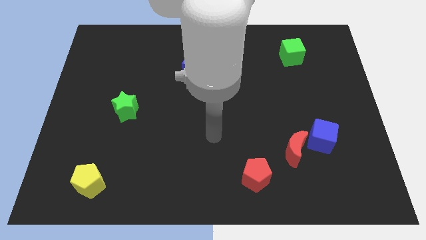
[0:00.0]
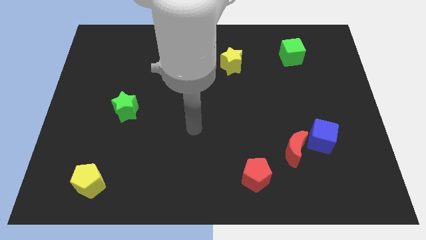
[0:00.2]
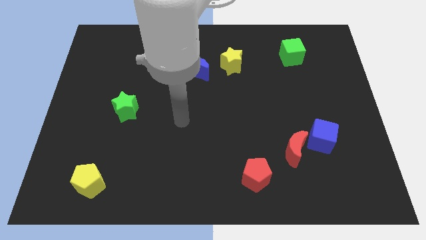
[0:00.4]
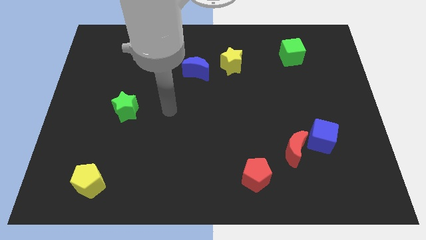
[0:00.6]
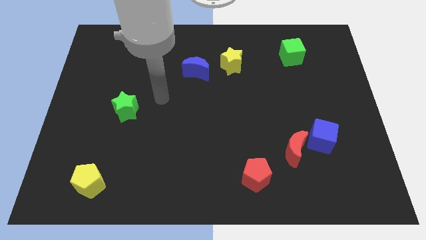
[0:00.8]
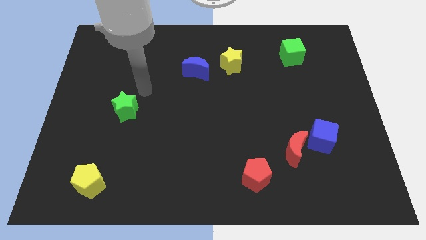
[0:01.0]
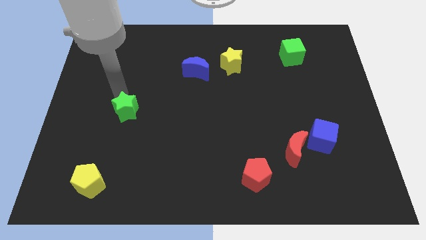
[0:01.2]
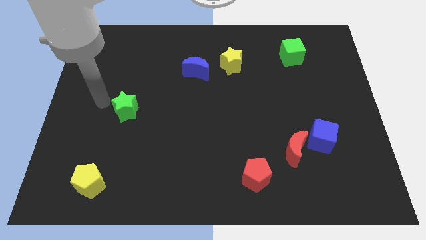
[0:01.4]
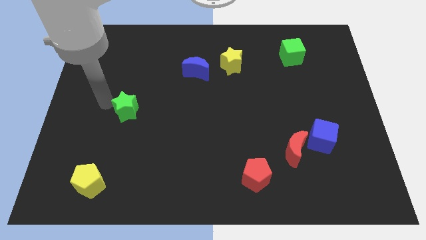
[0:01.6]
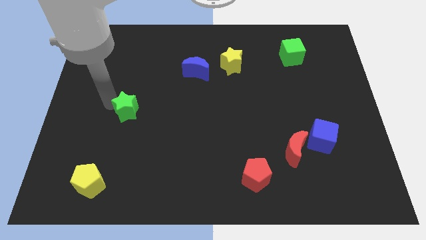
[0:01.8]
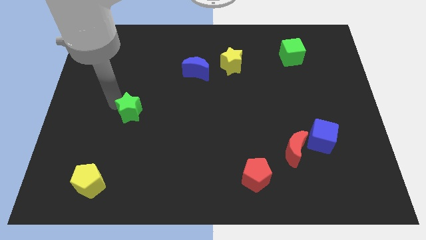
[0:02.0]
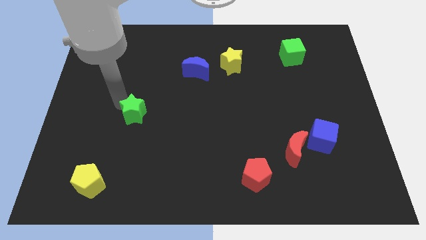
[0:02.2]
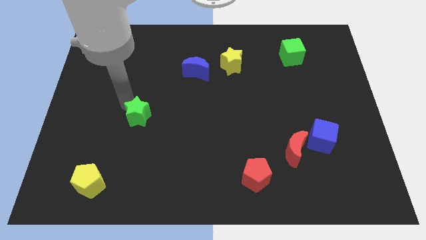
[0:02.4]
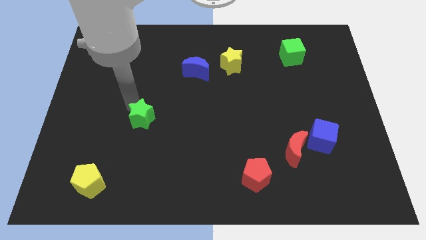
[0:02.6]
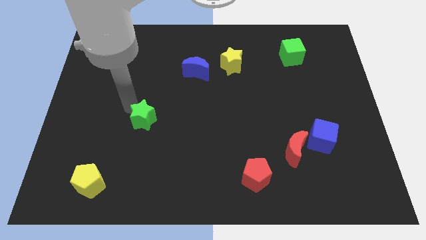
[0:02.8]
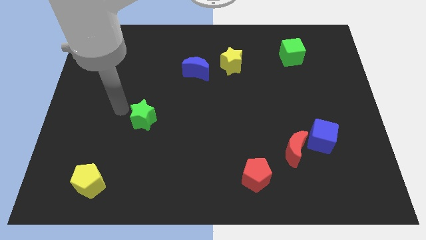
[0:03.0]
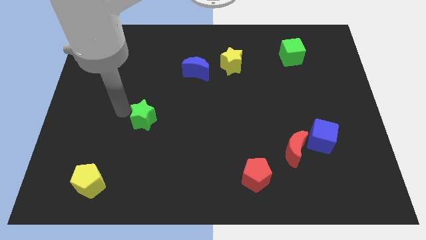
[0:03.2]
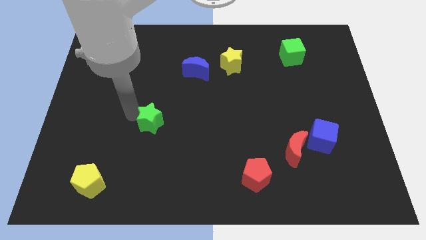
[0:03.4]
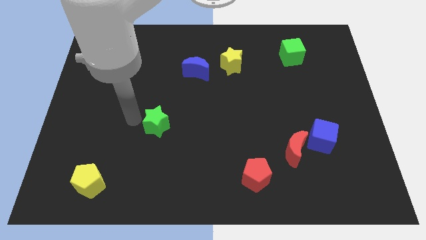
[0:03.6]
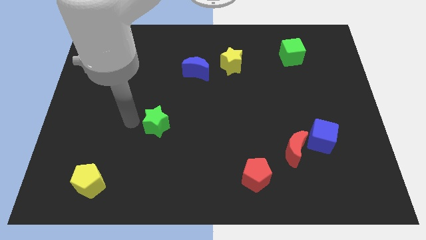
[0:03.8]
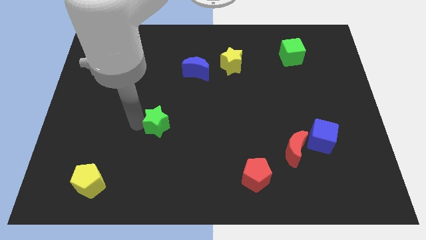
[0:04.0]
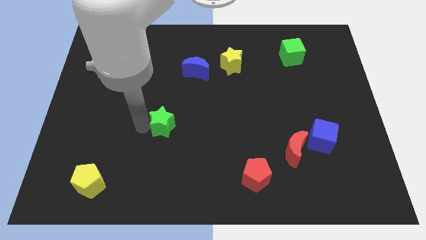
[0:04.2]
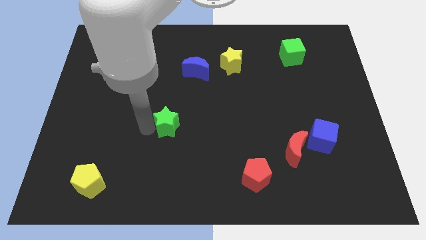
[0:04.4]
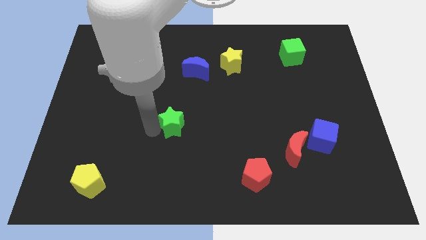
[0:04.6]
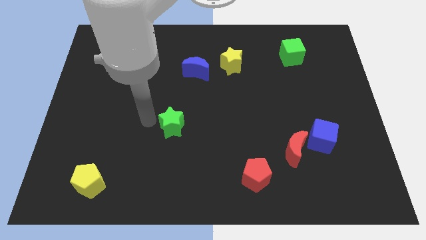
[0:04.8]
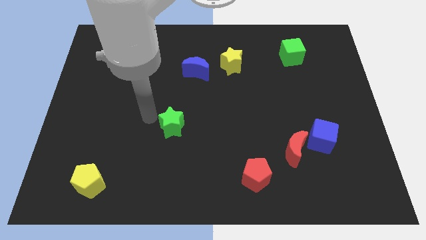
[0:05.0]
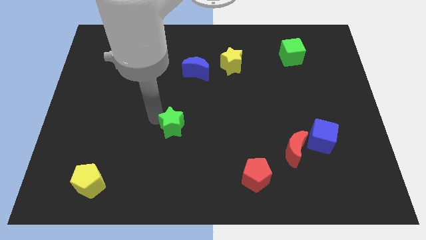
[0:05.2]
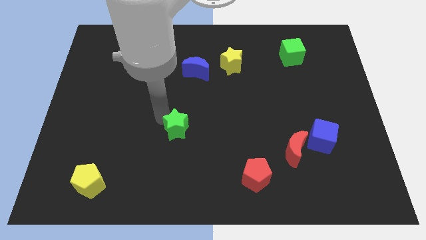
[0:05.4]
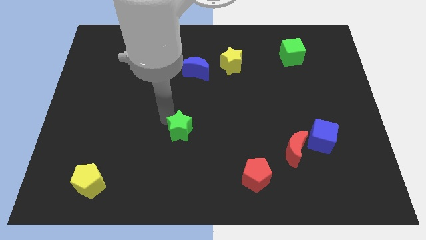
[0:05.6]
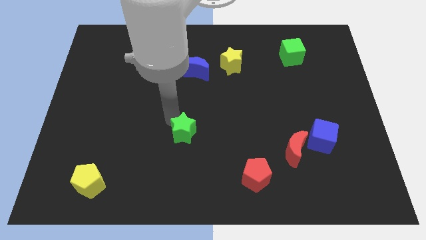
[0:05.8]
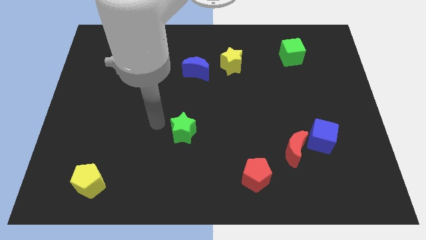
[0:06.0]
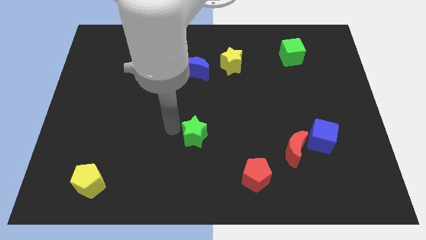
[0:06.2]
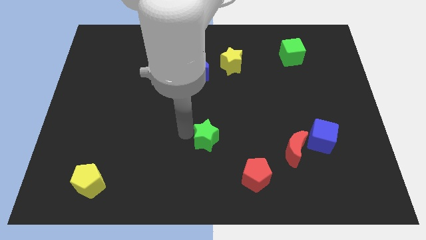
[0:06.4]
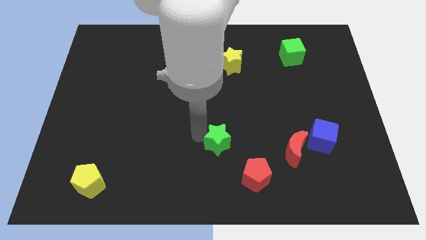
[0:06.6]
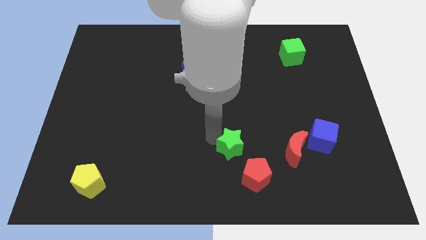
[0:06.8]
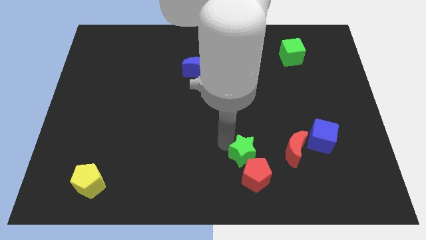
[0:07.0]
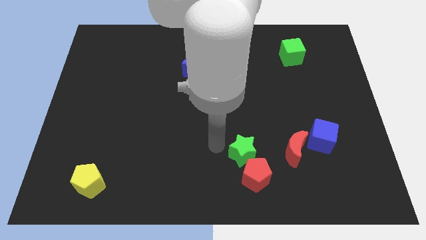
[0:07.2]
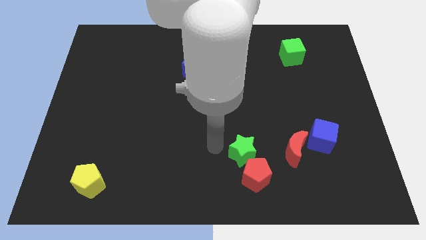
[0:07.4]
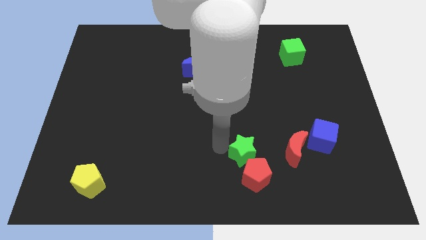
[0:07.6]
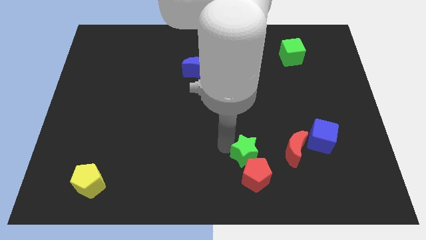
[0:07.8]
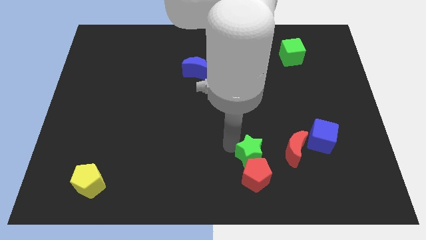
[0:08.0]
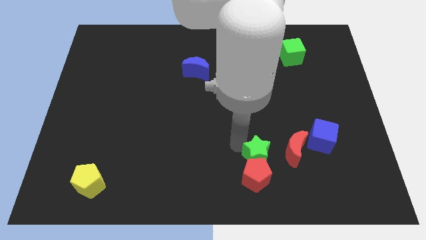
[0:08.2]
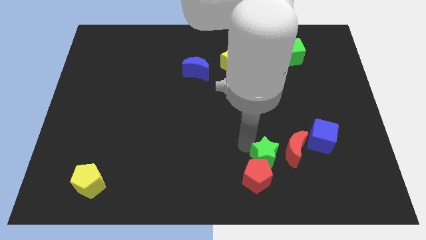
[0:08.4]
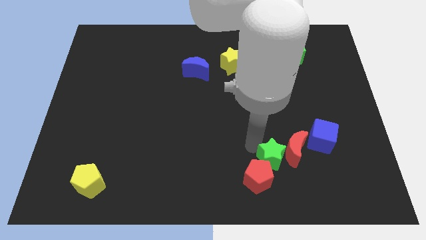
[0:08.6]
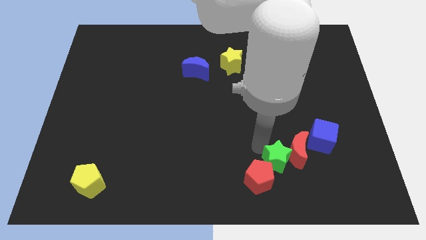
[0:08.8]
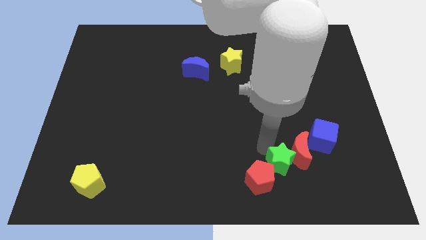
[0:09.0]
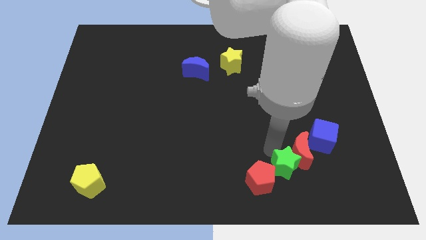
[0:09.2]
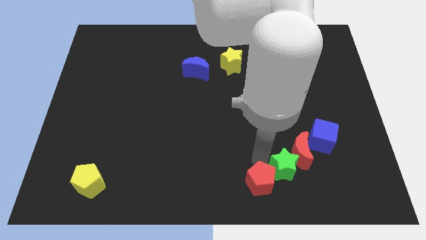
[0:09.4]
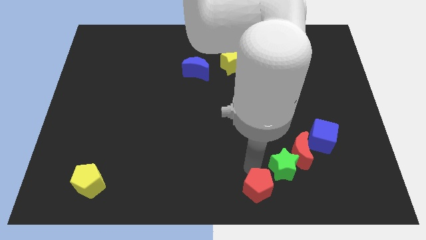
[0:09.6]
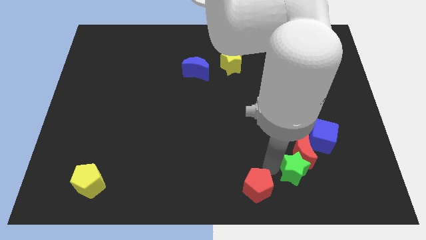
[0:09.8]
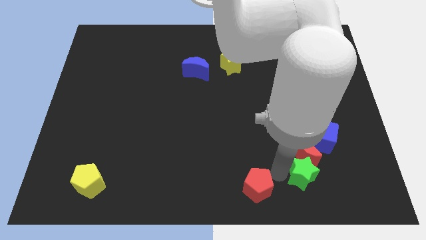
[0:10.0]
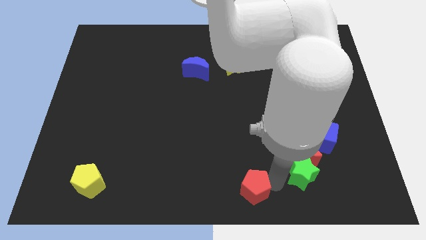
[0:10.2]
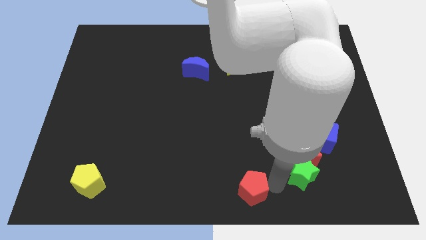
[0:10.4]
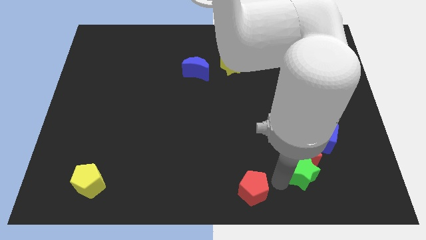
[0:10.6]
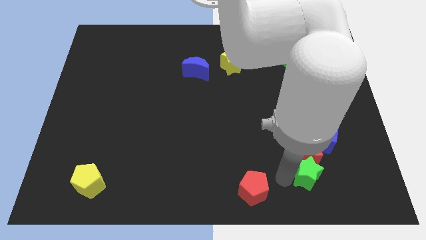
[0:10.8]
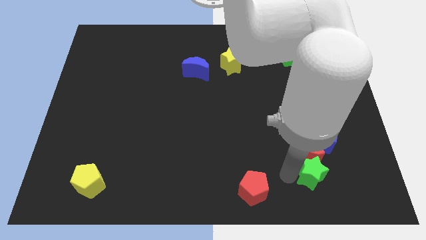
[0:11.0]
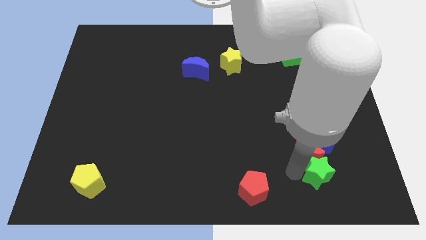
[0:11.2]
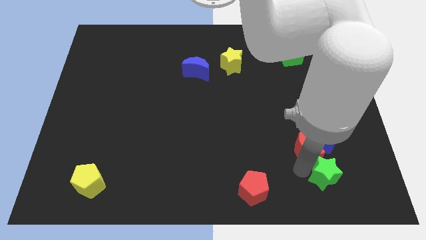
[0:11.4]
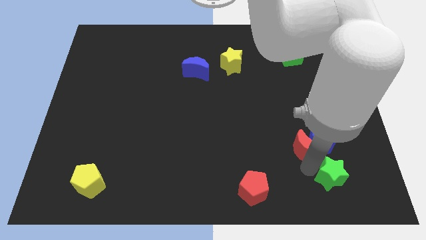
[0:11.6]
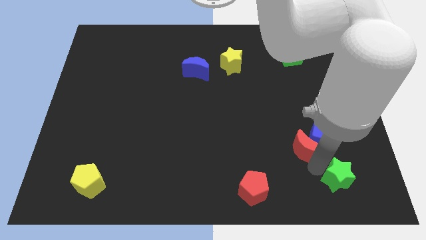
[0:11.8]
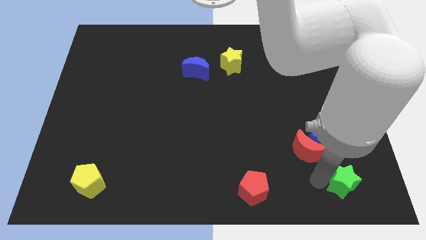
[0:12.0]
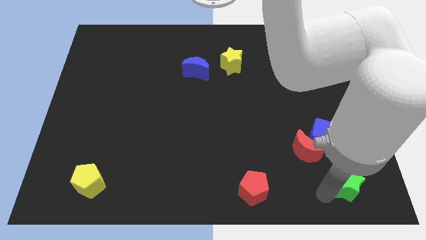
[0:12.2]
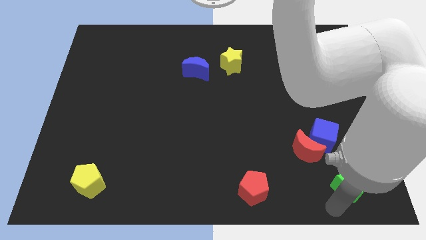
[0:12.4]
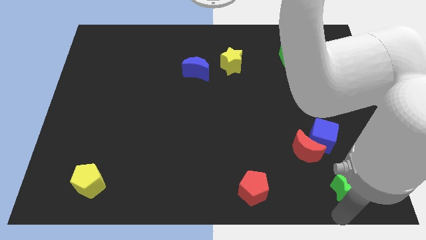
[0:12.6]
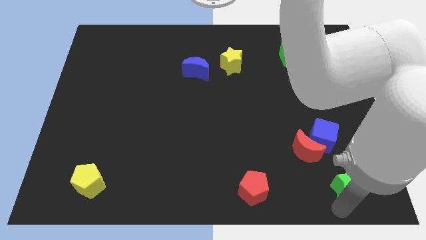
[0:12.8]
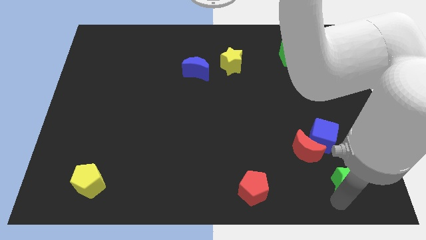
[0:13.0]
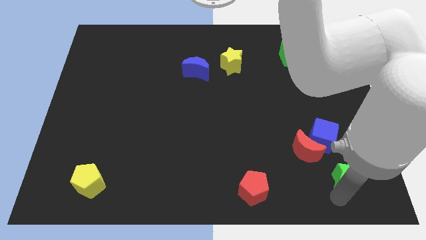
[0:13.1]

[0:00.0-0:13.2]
move the green star to the bottom right side of the blue cube

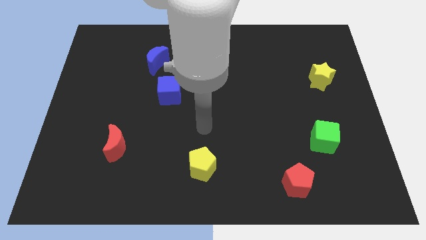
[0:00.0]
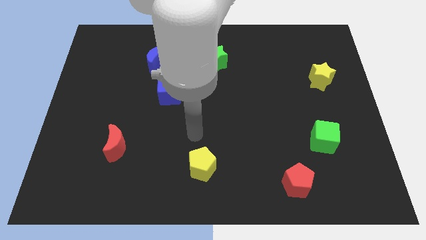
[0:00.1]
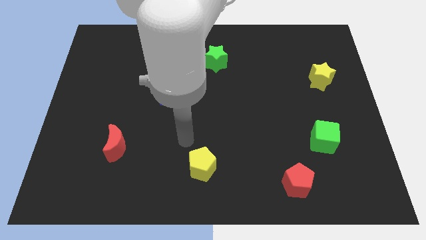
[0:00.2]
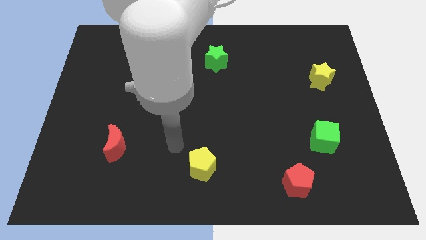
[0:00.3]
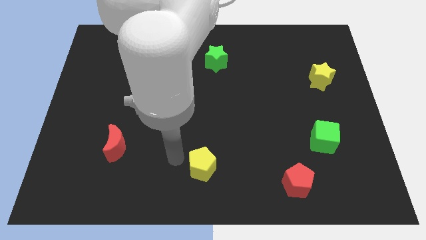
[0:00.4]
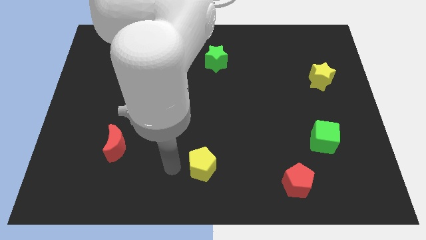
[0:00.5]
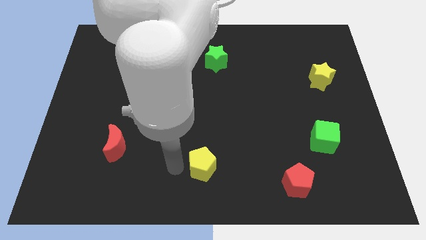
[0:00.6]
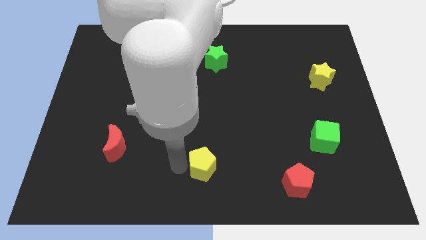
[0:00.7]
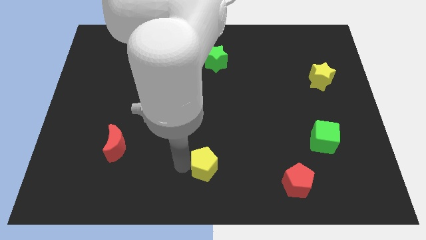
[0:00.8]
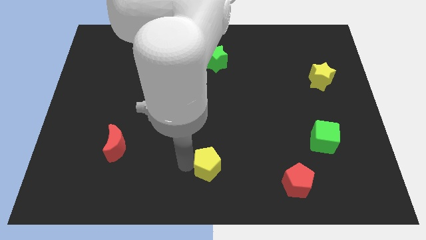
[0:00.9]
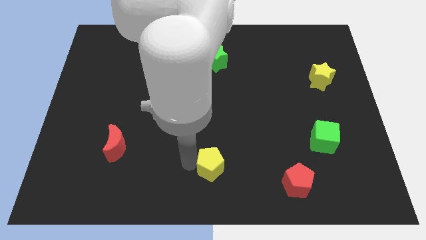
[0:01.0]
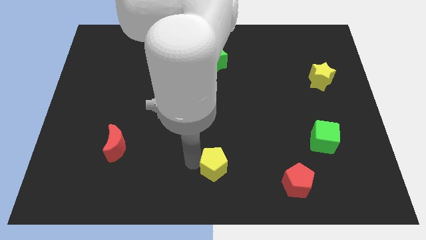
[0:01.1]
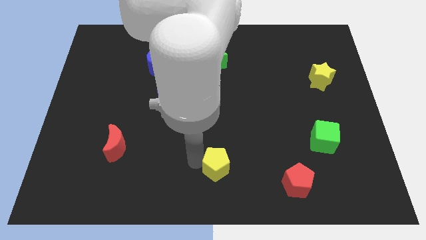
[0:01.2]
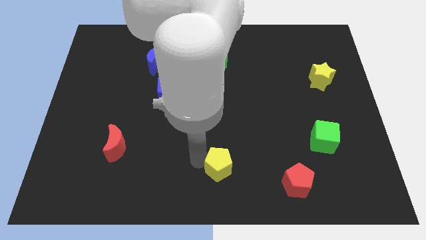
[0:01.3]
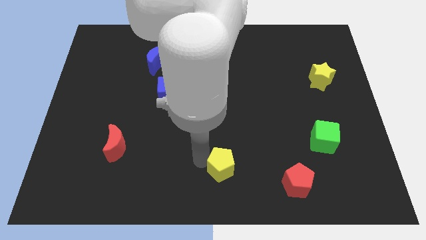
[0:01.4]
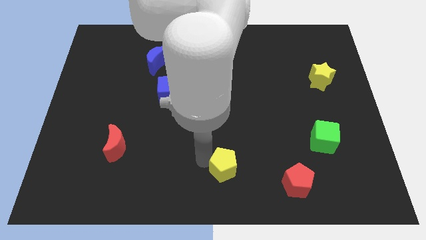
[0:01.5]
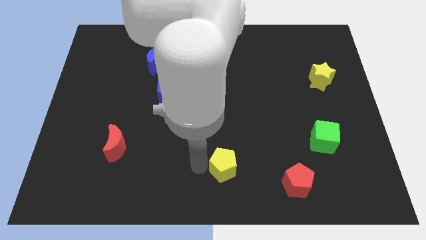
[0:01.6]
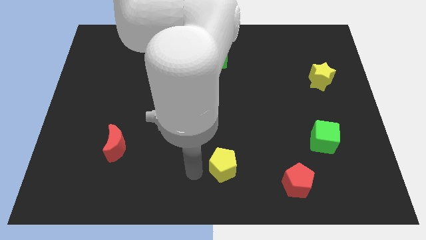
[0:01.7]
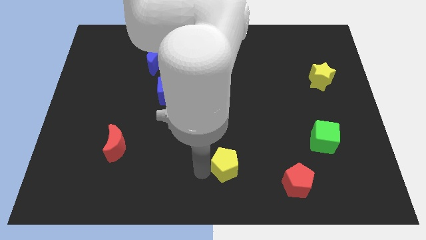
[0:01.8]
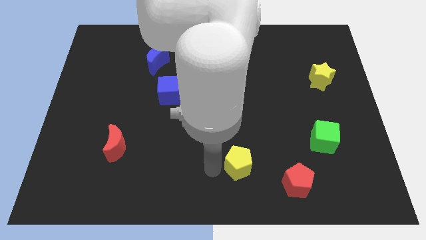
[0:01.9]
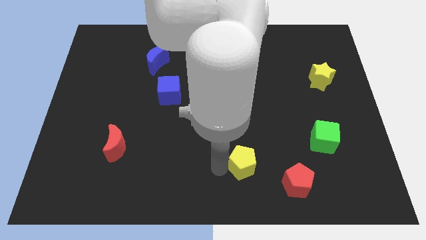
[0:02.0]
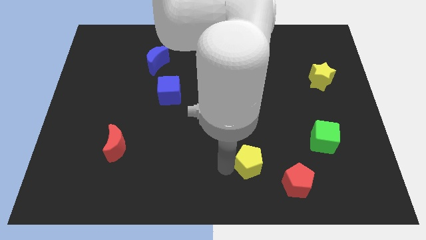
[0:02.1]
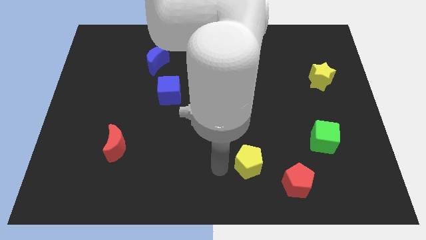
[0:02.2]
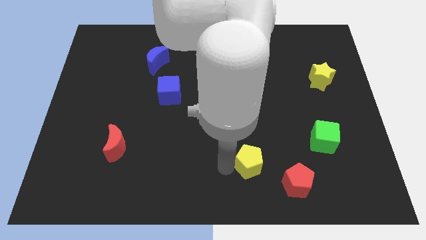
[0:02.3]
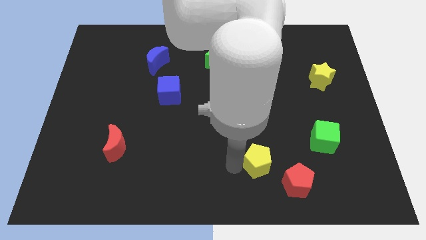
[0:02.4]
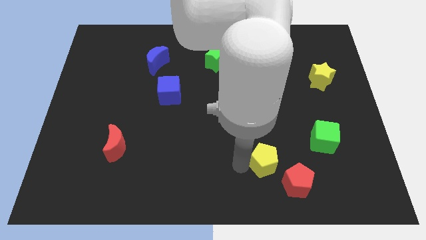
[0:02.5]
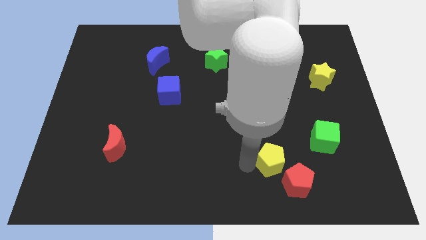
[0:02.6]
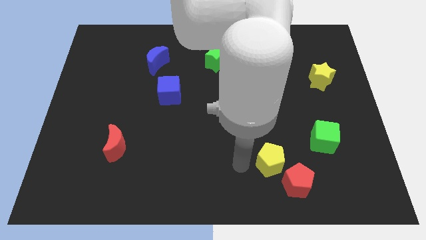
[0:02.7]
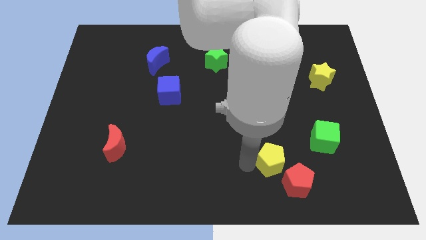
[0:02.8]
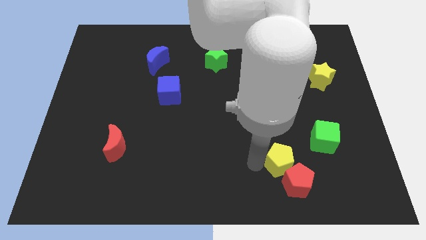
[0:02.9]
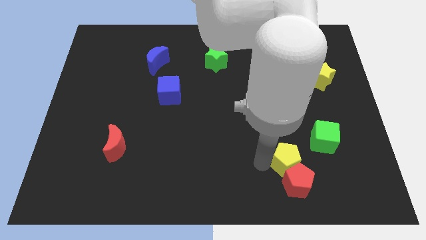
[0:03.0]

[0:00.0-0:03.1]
push the yellow pentagon to the top right side of the red pentagon
